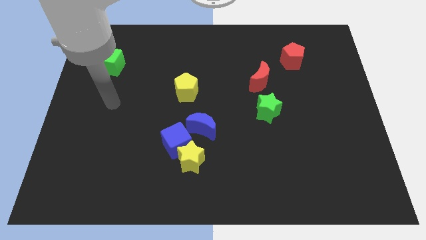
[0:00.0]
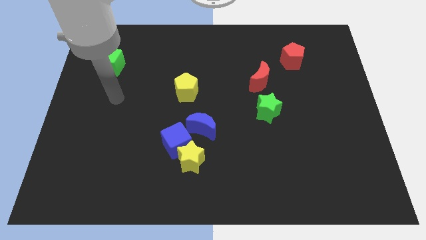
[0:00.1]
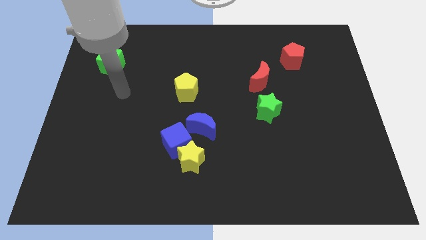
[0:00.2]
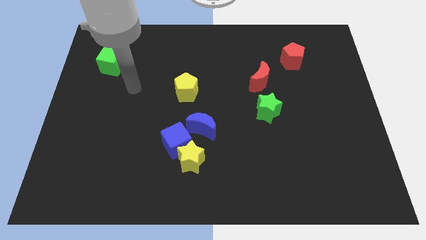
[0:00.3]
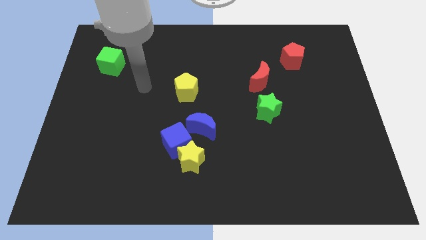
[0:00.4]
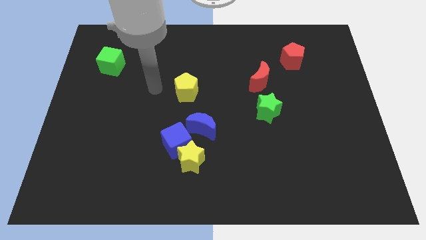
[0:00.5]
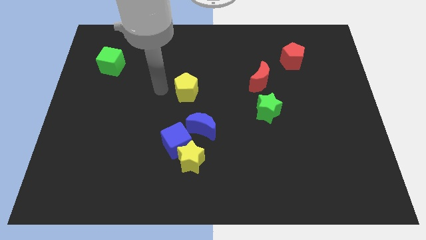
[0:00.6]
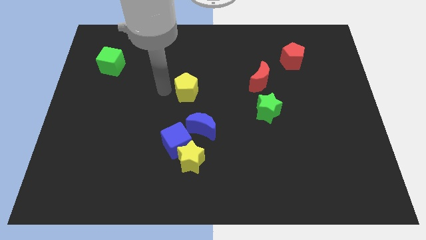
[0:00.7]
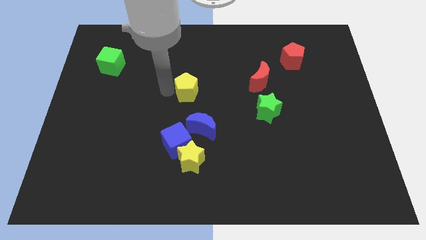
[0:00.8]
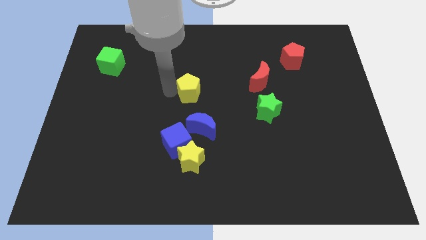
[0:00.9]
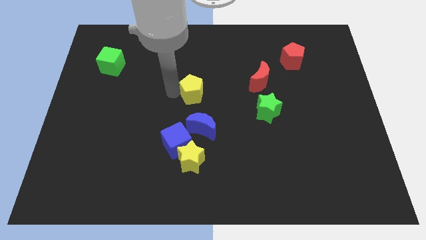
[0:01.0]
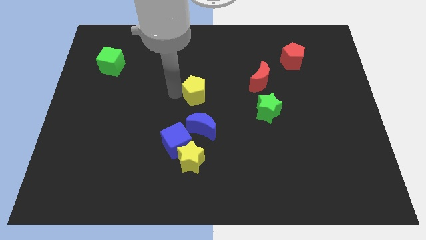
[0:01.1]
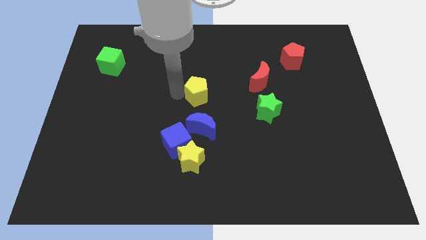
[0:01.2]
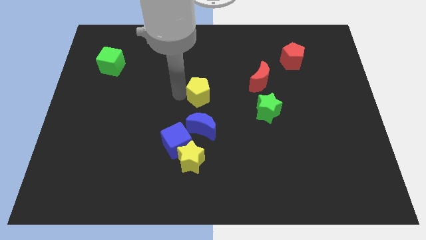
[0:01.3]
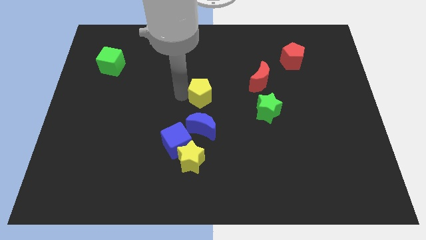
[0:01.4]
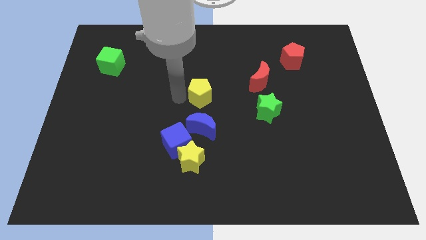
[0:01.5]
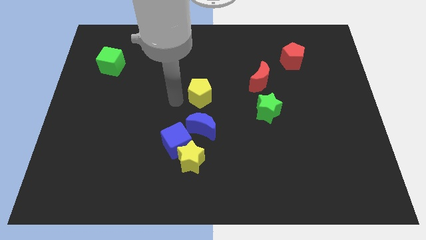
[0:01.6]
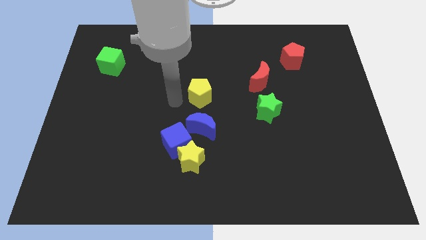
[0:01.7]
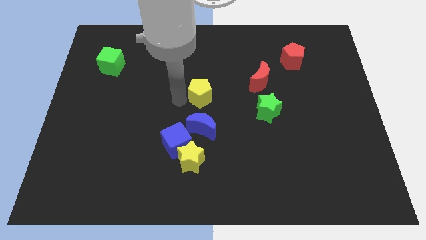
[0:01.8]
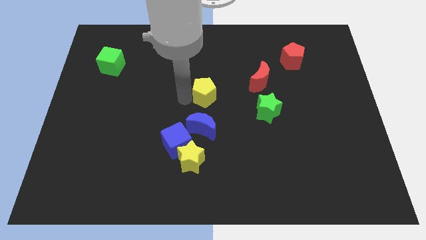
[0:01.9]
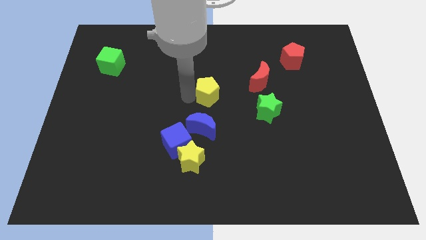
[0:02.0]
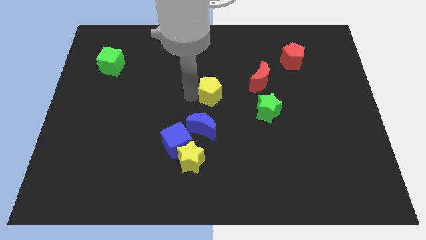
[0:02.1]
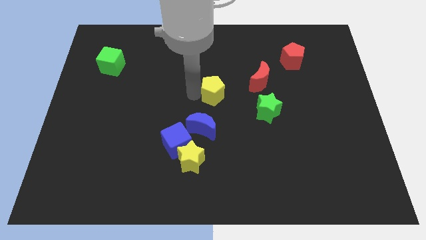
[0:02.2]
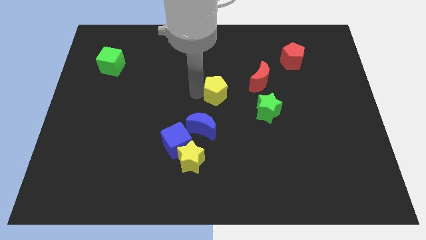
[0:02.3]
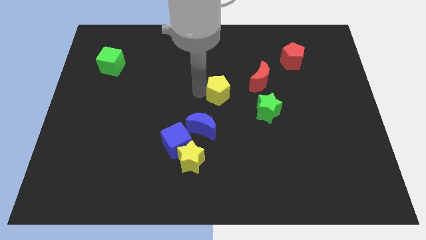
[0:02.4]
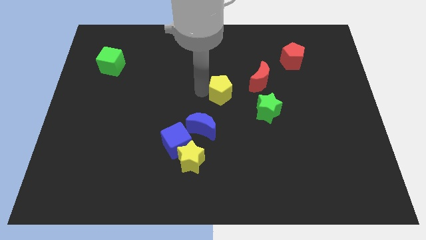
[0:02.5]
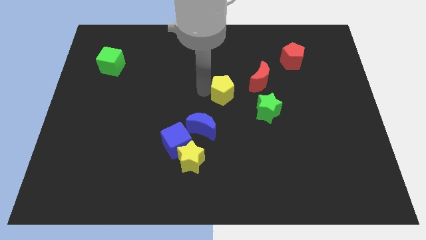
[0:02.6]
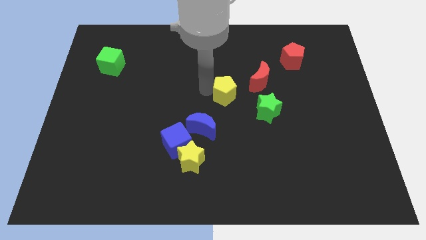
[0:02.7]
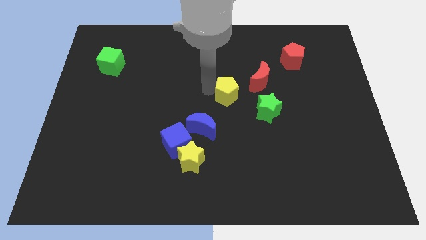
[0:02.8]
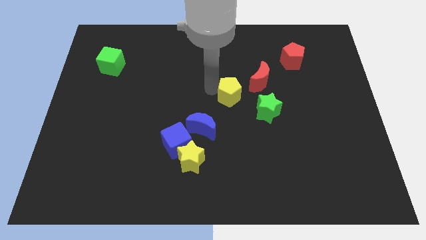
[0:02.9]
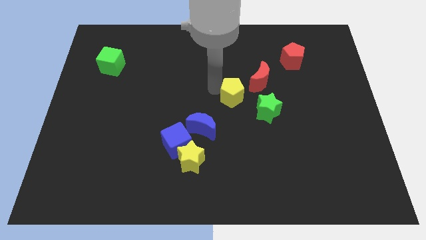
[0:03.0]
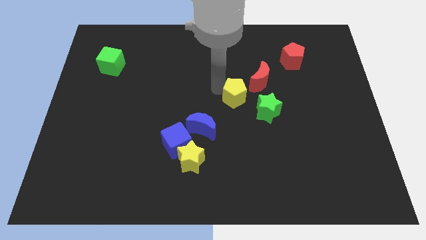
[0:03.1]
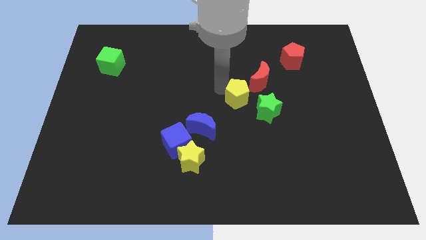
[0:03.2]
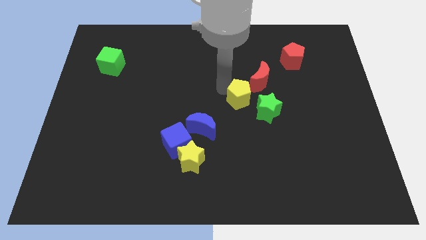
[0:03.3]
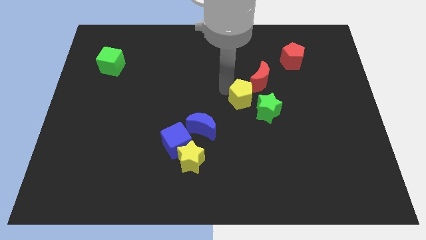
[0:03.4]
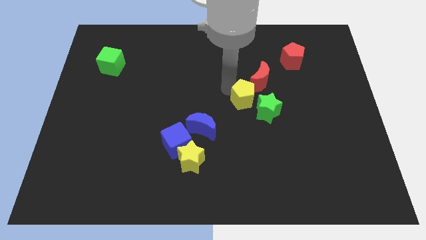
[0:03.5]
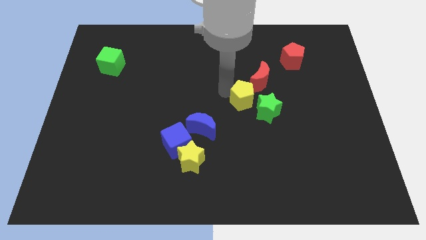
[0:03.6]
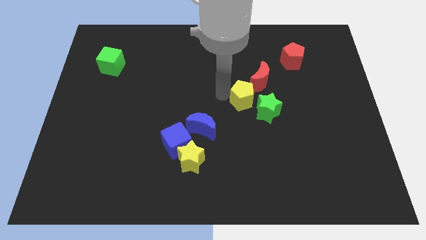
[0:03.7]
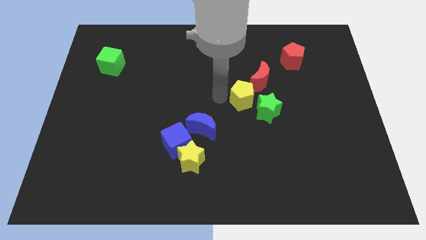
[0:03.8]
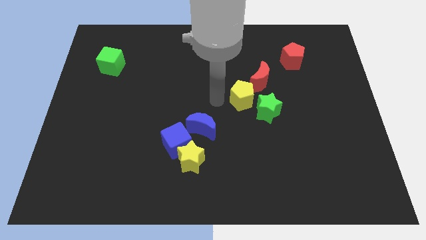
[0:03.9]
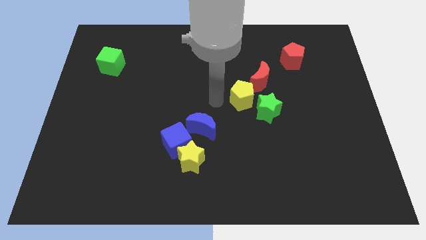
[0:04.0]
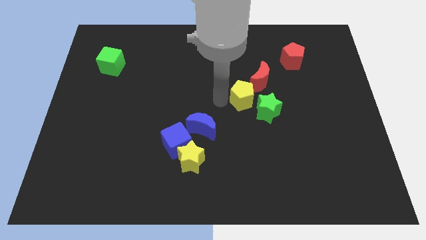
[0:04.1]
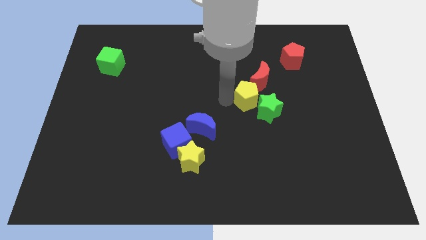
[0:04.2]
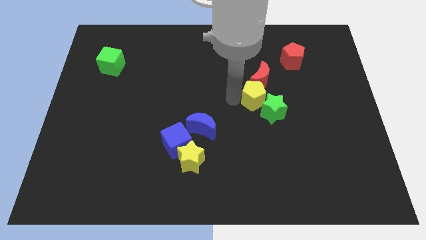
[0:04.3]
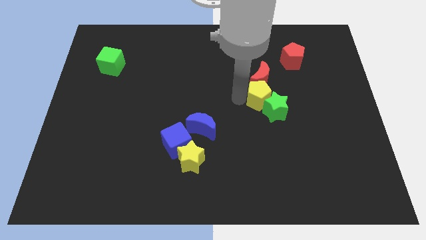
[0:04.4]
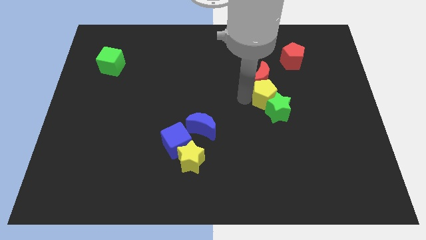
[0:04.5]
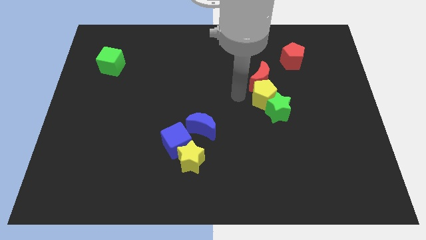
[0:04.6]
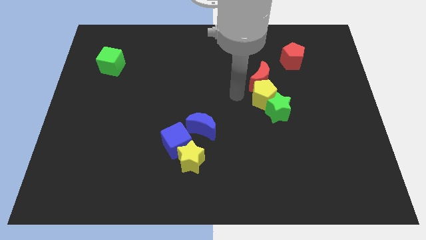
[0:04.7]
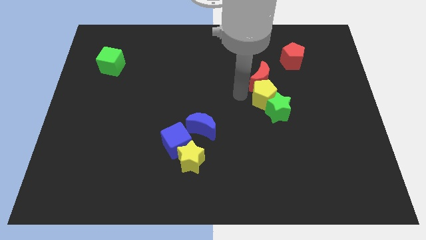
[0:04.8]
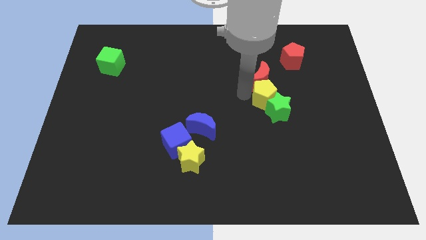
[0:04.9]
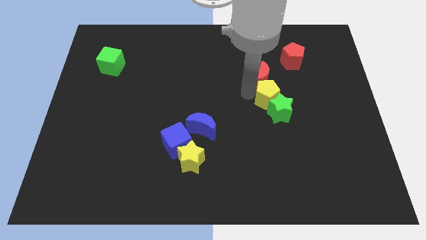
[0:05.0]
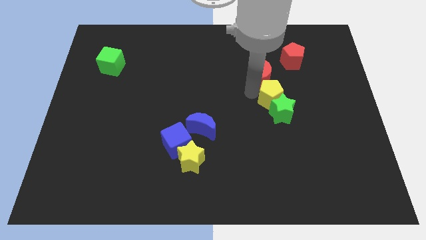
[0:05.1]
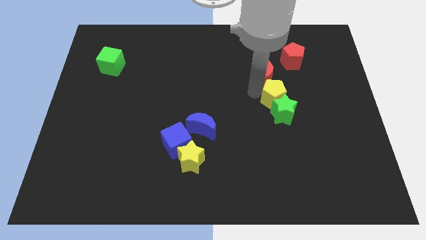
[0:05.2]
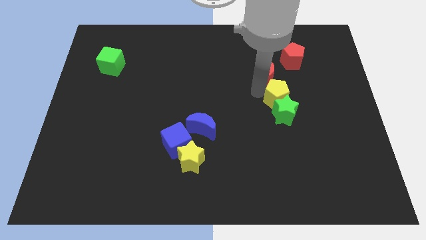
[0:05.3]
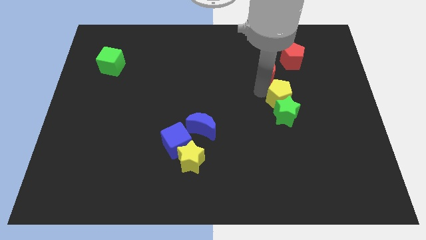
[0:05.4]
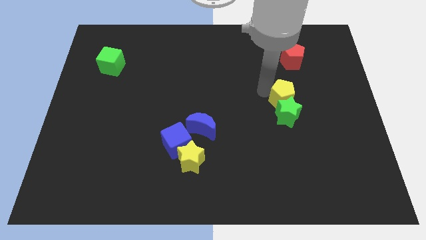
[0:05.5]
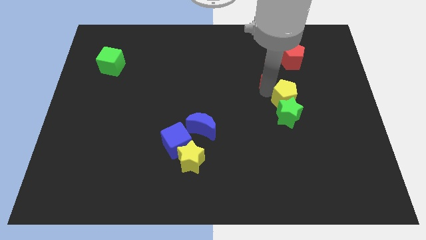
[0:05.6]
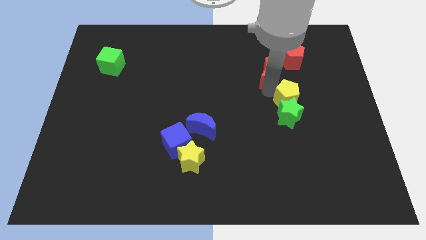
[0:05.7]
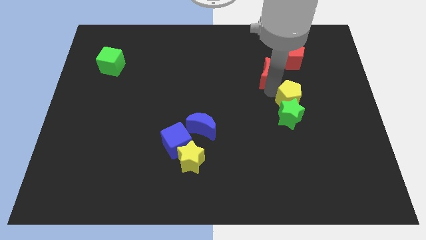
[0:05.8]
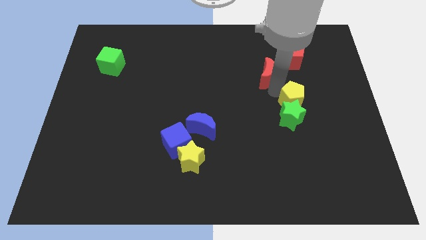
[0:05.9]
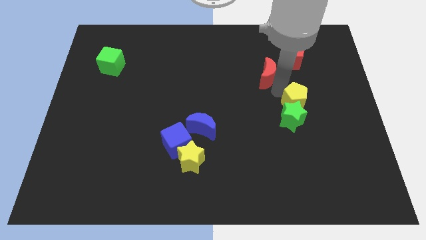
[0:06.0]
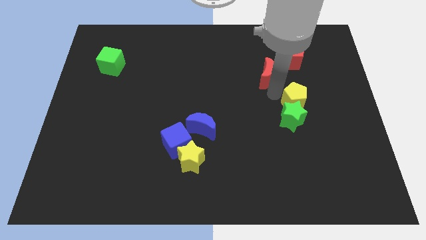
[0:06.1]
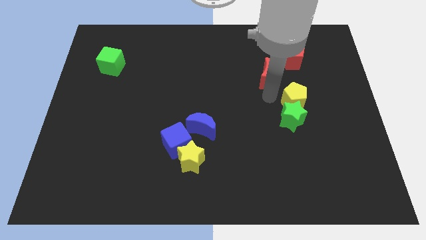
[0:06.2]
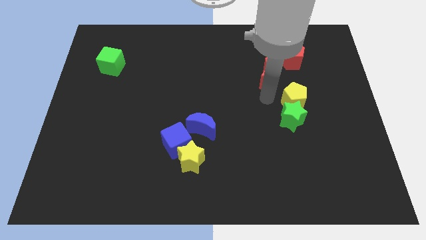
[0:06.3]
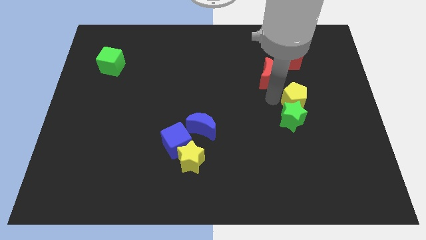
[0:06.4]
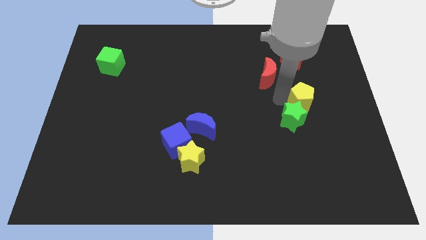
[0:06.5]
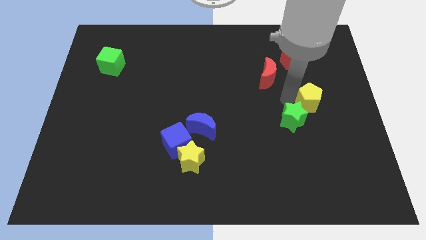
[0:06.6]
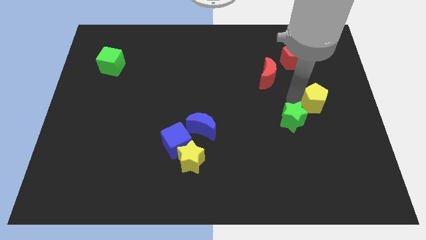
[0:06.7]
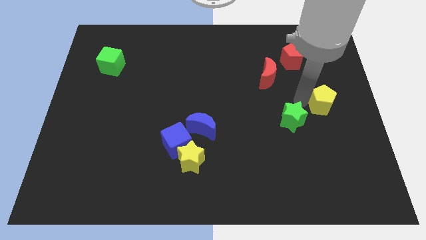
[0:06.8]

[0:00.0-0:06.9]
put the yellow pentagon to the right side of the board

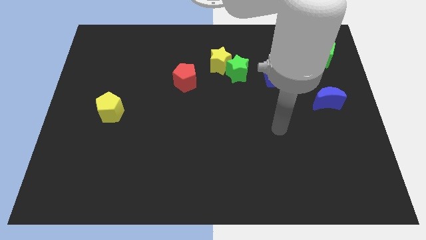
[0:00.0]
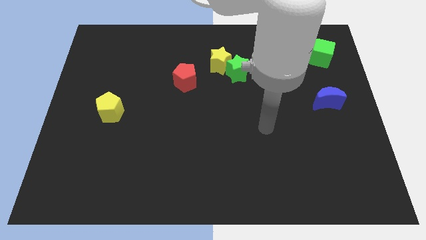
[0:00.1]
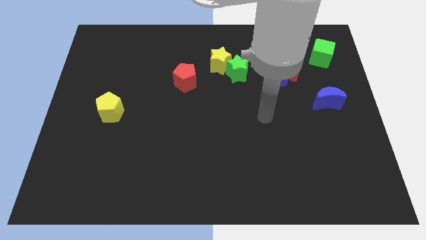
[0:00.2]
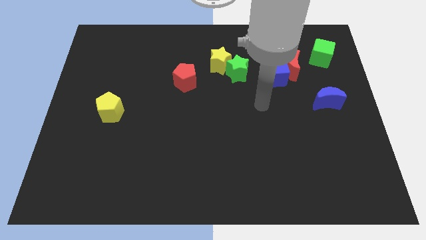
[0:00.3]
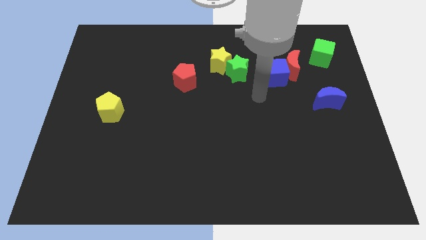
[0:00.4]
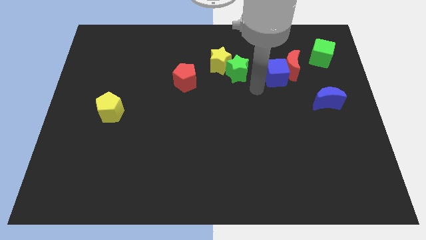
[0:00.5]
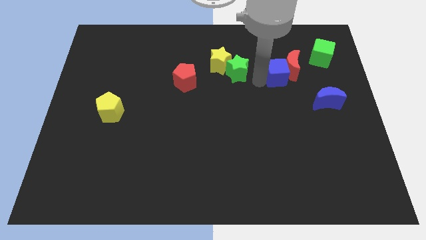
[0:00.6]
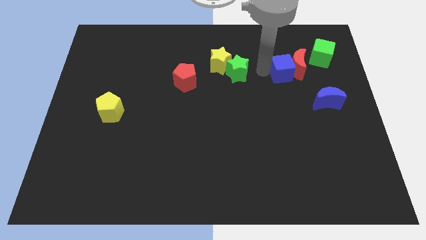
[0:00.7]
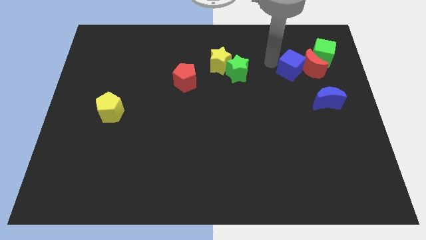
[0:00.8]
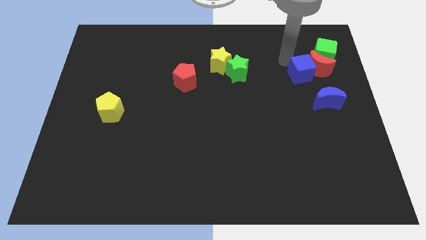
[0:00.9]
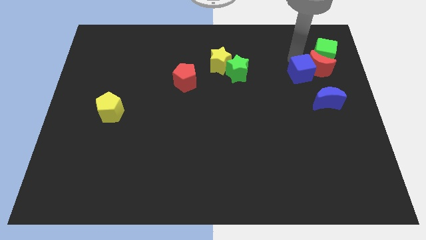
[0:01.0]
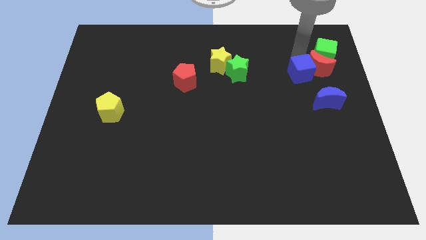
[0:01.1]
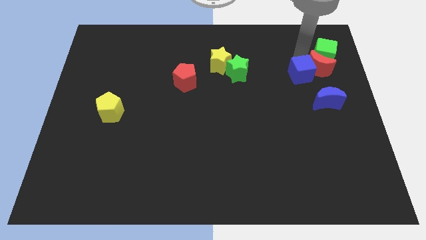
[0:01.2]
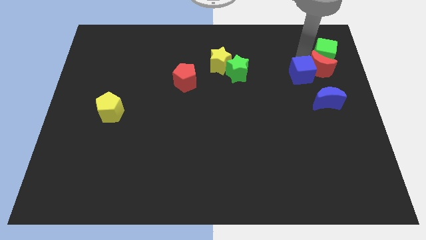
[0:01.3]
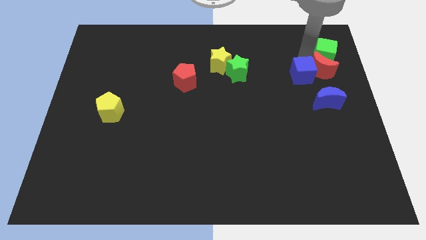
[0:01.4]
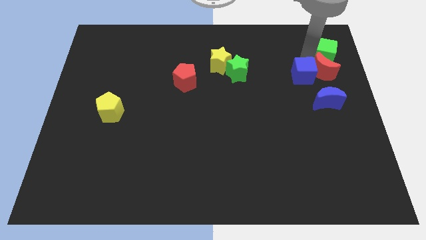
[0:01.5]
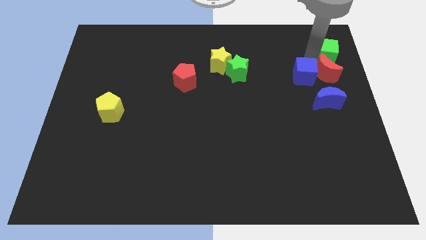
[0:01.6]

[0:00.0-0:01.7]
slide the red moon to the right side of the board
